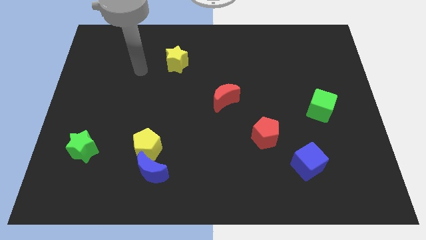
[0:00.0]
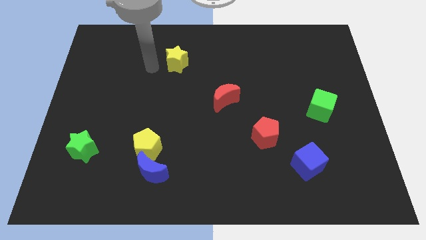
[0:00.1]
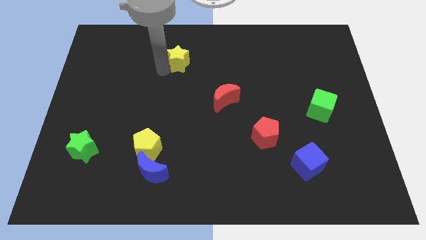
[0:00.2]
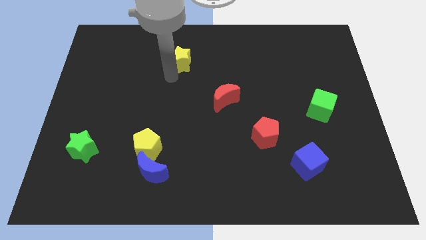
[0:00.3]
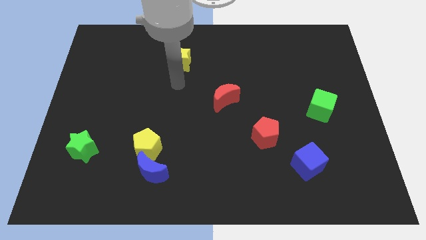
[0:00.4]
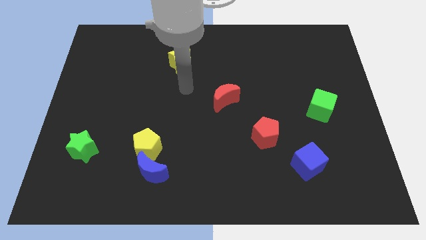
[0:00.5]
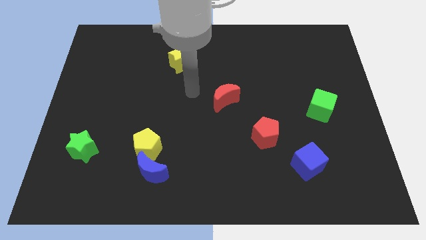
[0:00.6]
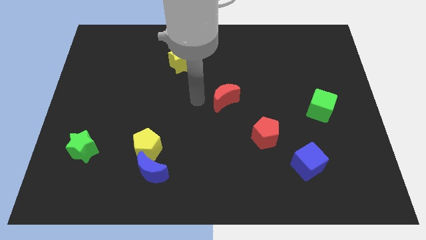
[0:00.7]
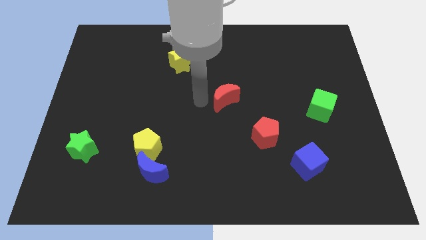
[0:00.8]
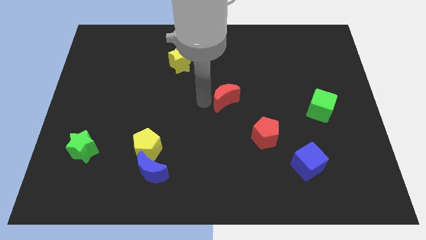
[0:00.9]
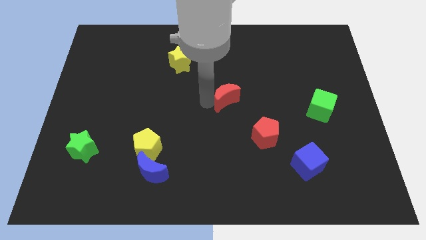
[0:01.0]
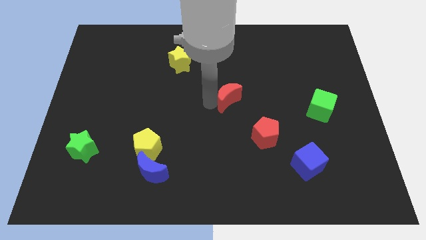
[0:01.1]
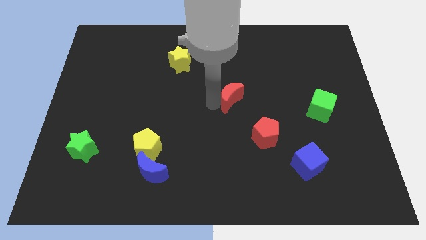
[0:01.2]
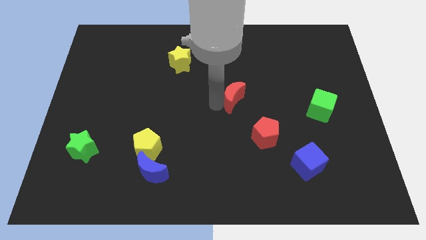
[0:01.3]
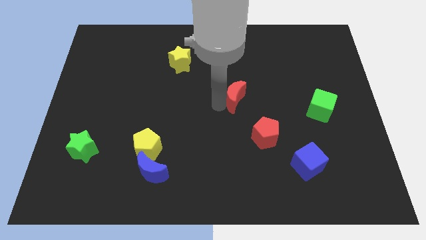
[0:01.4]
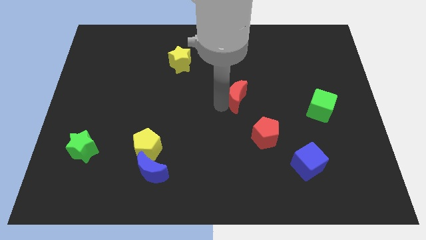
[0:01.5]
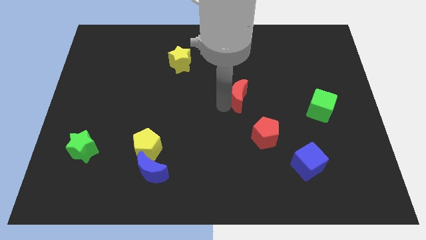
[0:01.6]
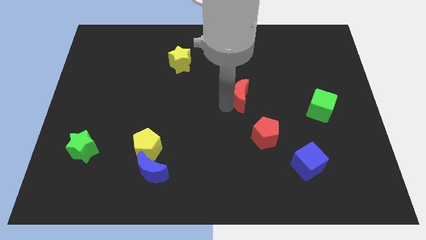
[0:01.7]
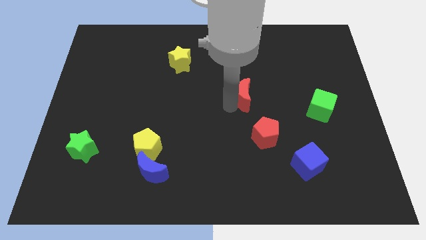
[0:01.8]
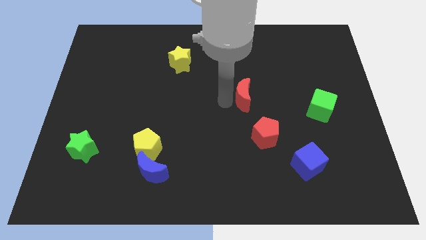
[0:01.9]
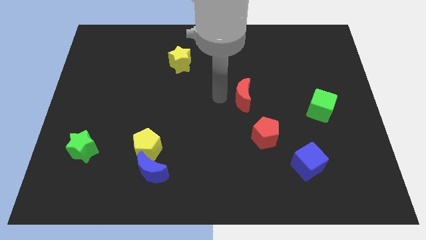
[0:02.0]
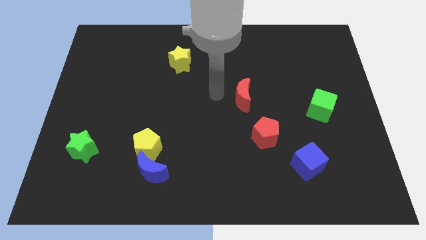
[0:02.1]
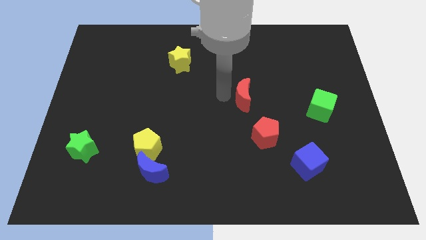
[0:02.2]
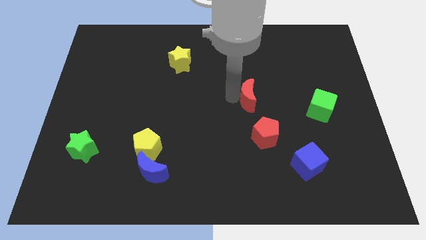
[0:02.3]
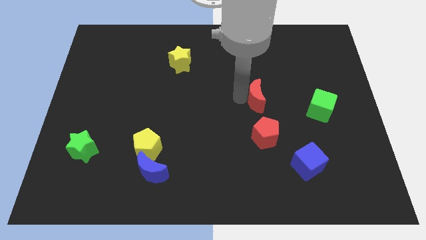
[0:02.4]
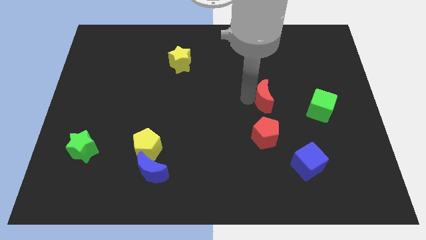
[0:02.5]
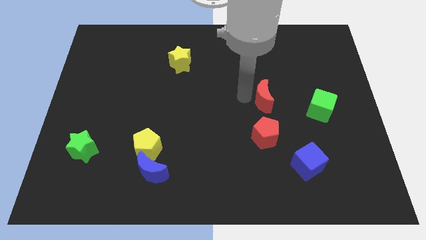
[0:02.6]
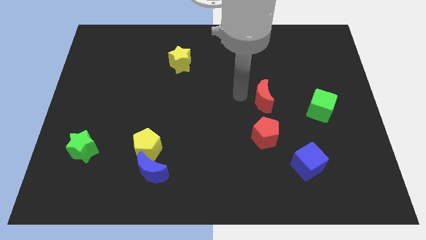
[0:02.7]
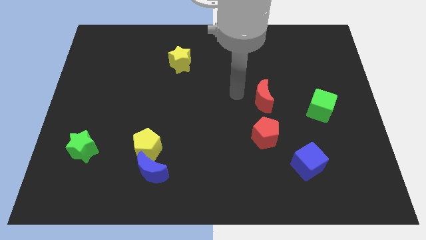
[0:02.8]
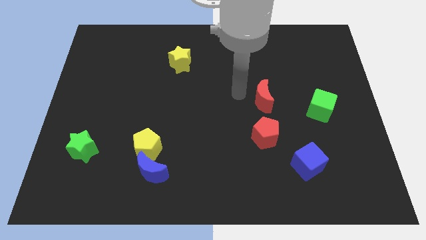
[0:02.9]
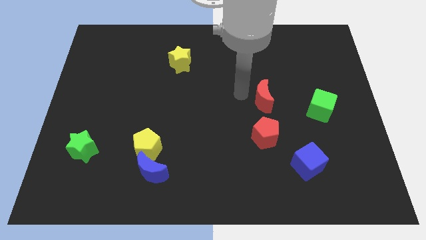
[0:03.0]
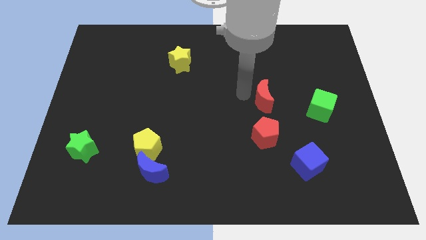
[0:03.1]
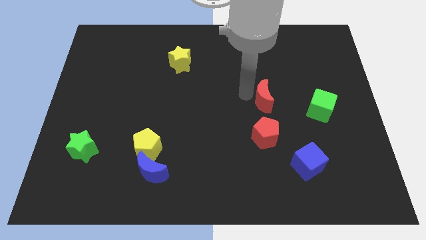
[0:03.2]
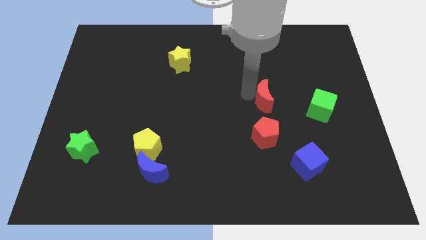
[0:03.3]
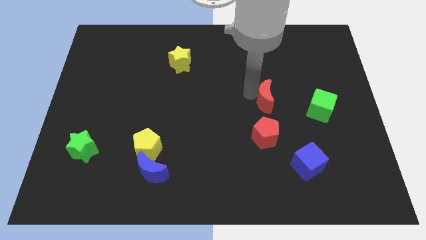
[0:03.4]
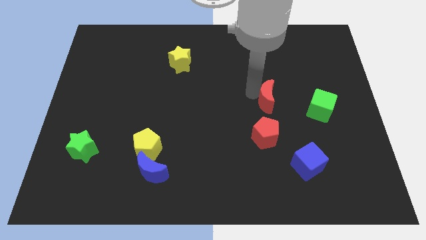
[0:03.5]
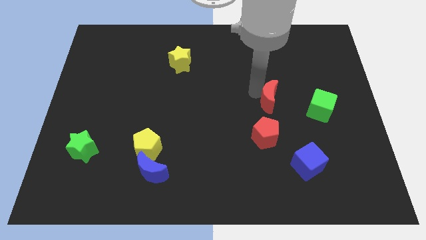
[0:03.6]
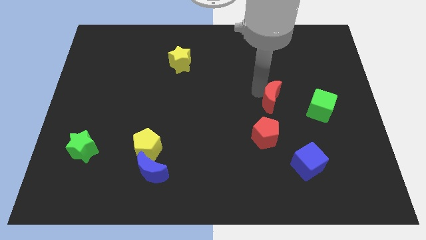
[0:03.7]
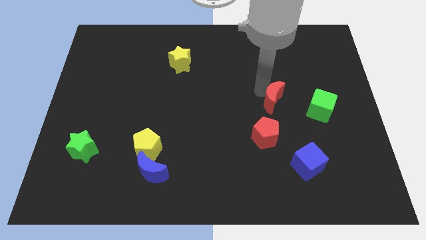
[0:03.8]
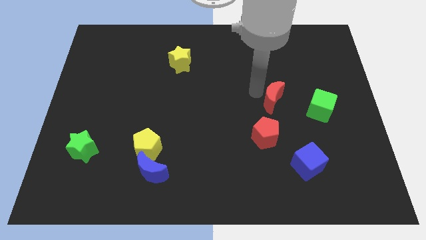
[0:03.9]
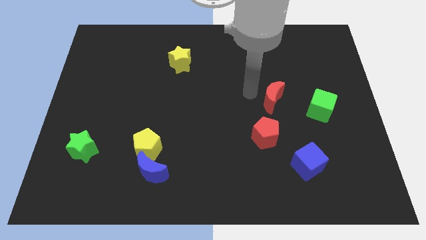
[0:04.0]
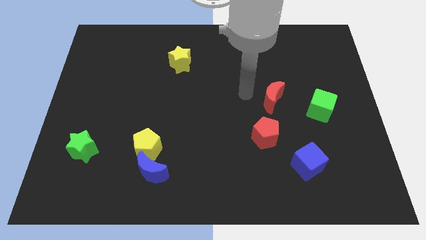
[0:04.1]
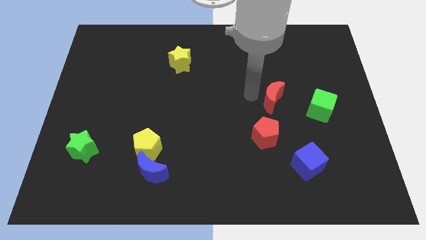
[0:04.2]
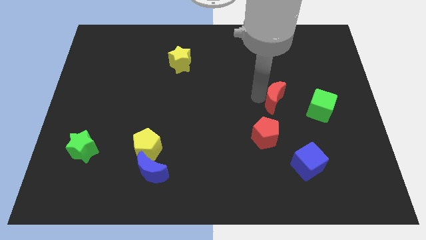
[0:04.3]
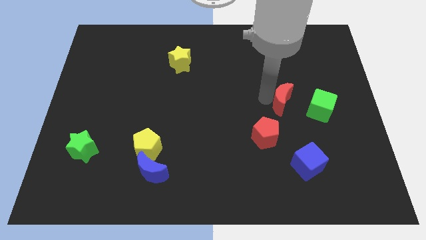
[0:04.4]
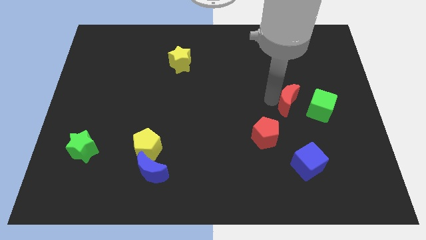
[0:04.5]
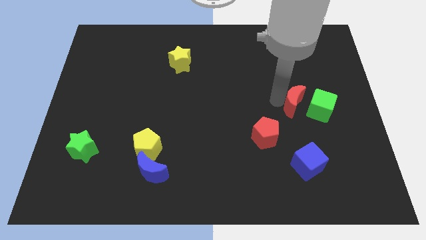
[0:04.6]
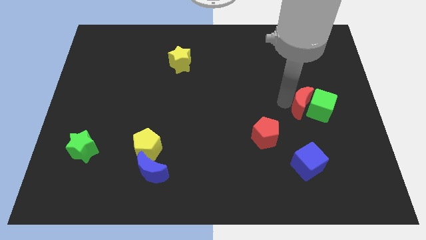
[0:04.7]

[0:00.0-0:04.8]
put the red moon towards the green cube

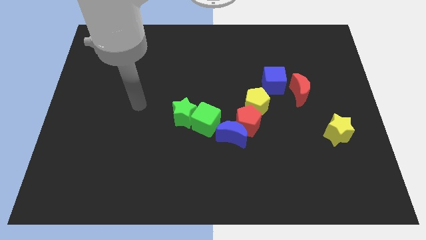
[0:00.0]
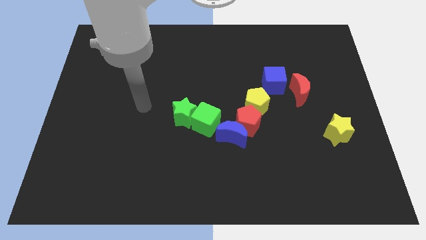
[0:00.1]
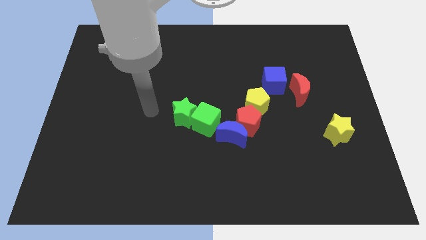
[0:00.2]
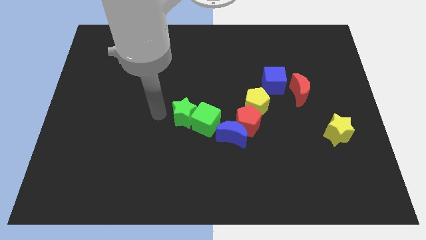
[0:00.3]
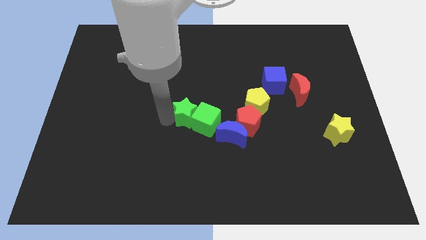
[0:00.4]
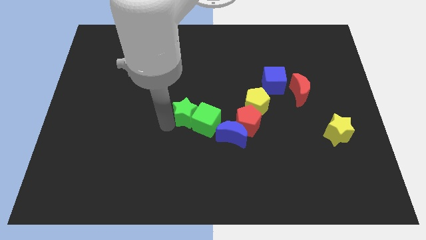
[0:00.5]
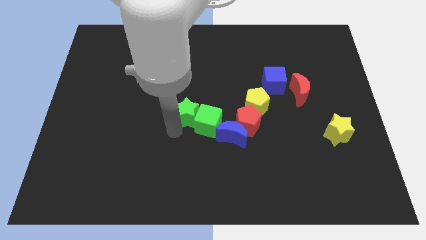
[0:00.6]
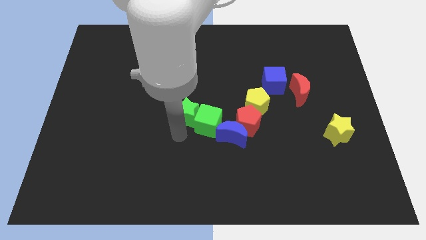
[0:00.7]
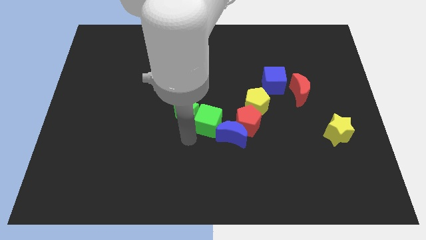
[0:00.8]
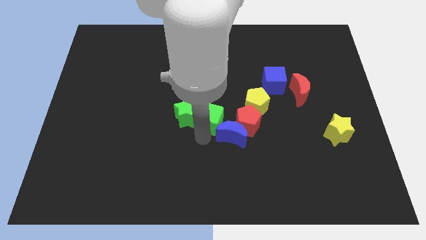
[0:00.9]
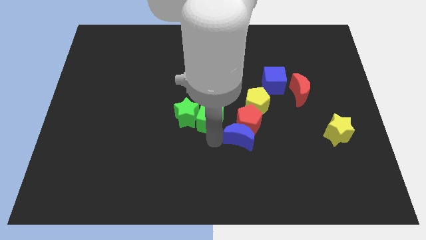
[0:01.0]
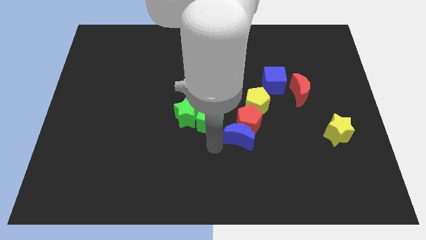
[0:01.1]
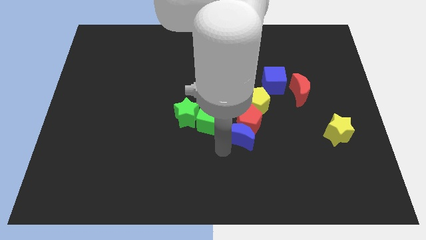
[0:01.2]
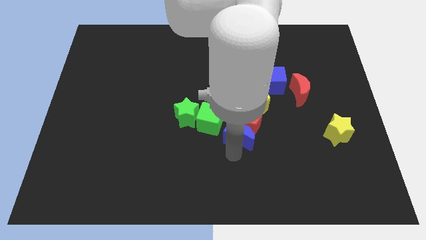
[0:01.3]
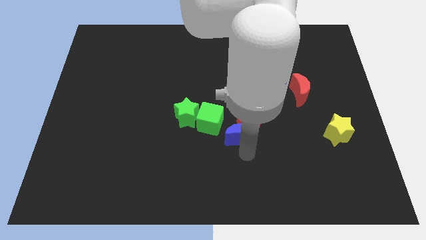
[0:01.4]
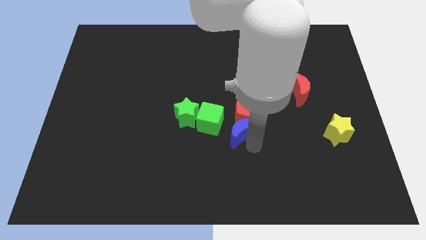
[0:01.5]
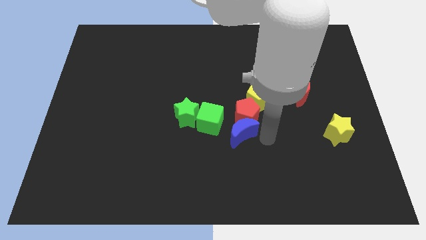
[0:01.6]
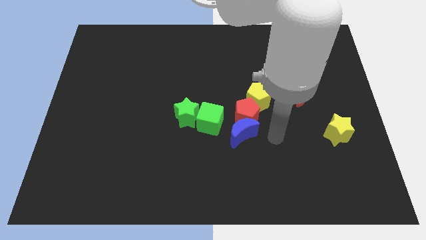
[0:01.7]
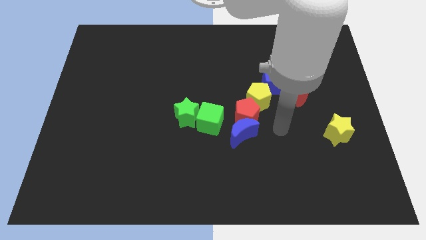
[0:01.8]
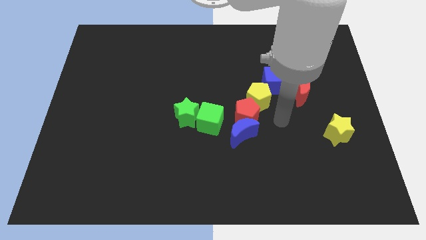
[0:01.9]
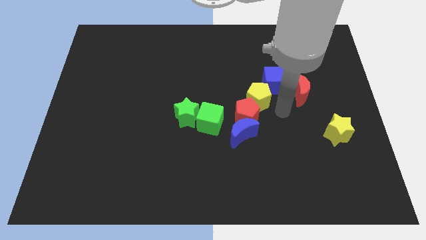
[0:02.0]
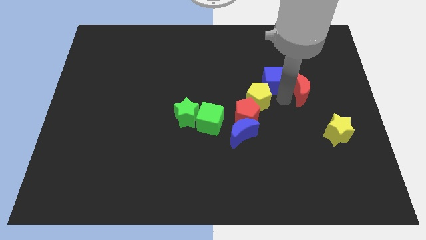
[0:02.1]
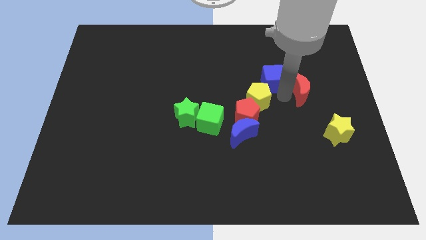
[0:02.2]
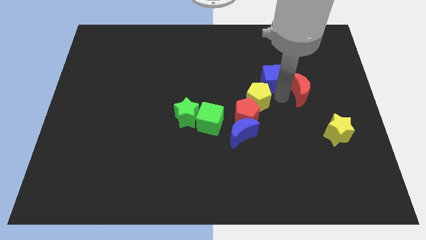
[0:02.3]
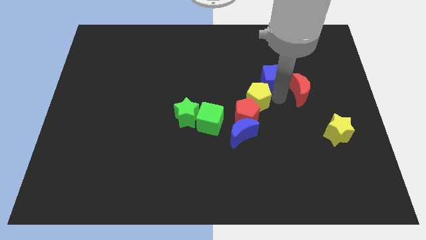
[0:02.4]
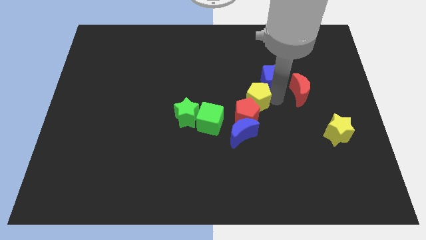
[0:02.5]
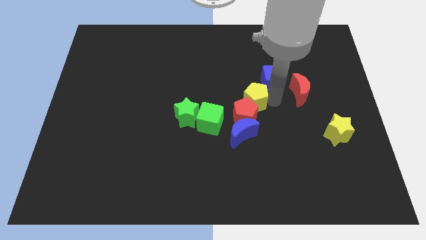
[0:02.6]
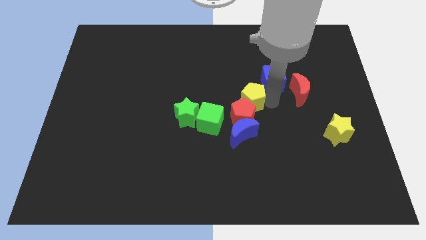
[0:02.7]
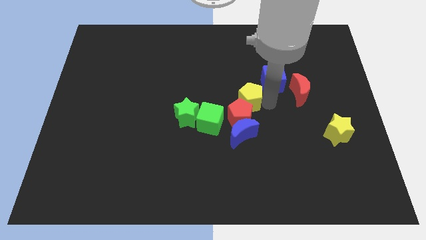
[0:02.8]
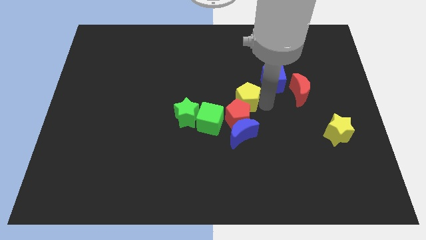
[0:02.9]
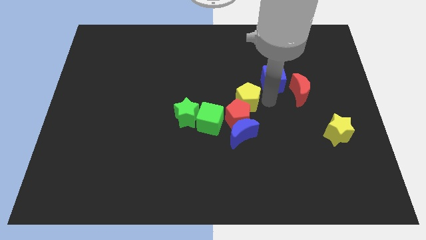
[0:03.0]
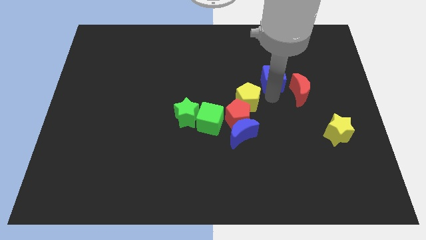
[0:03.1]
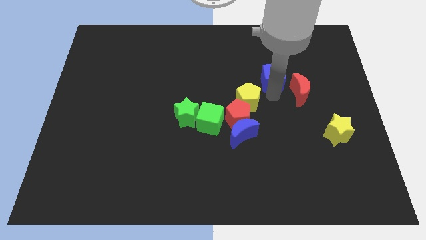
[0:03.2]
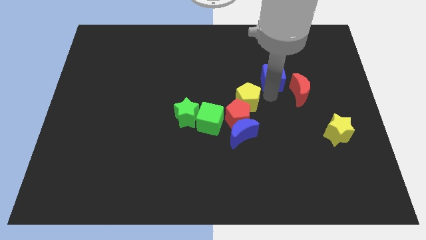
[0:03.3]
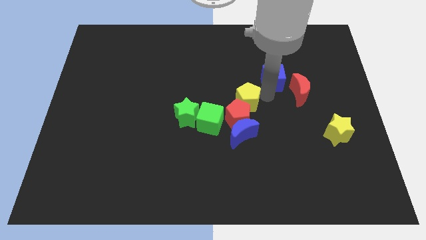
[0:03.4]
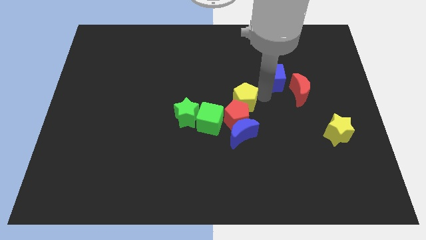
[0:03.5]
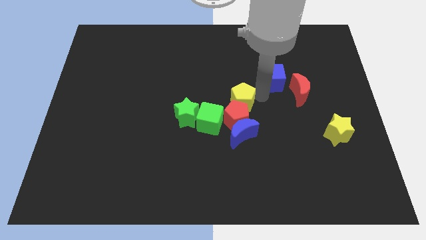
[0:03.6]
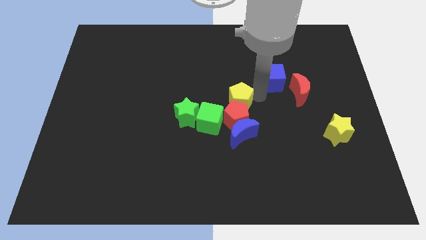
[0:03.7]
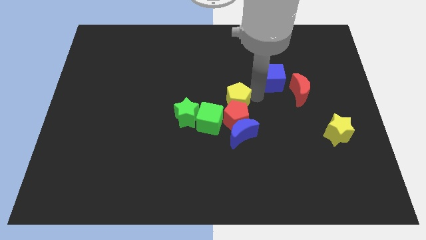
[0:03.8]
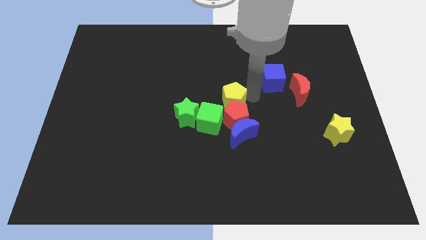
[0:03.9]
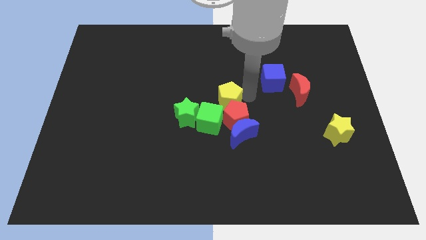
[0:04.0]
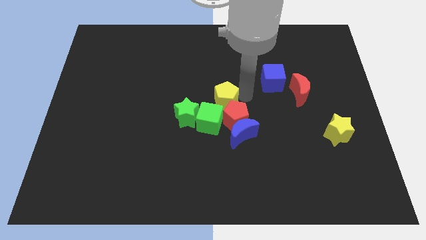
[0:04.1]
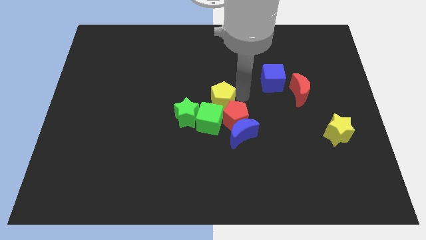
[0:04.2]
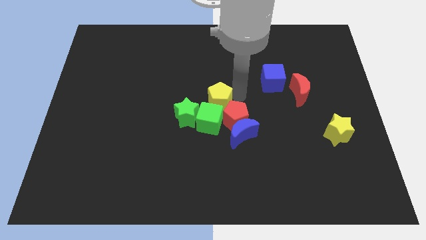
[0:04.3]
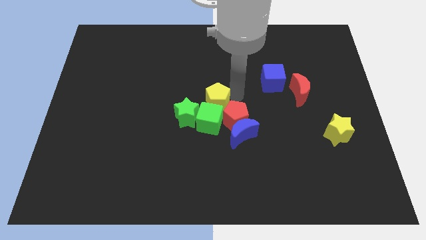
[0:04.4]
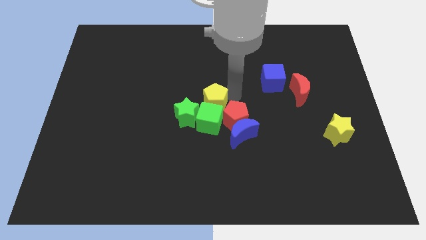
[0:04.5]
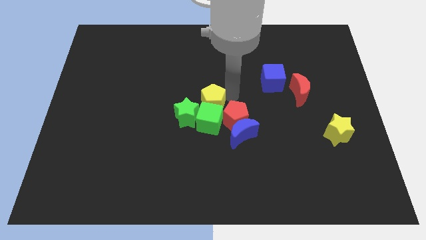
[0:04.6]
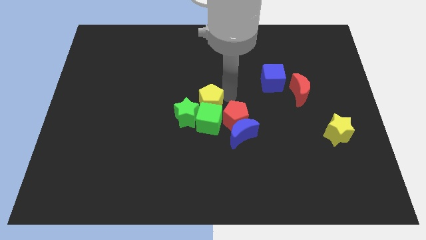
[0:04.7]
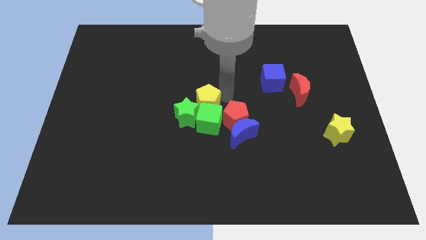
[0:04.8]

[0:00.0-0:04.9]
push the yellow pentagon close to the green star
